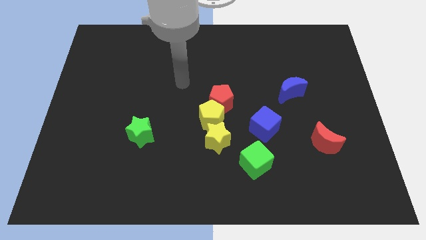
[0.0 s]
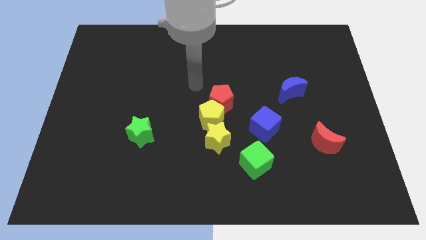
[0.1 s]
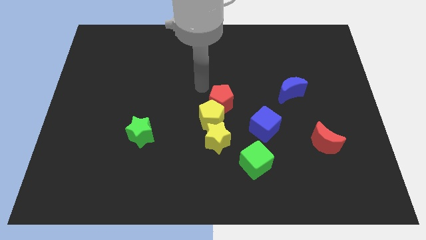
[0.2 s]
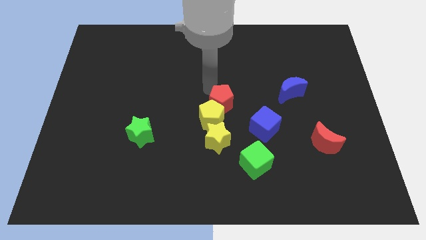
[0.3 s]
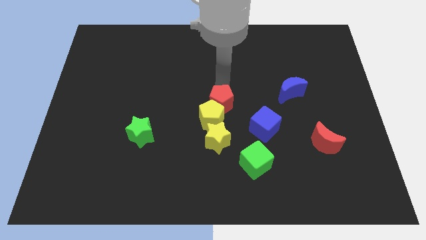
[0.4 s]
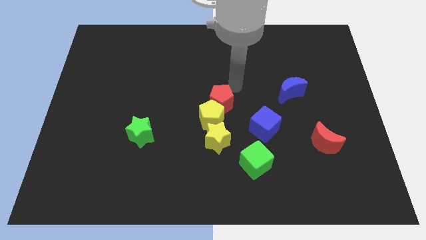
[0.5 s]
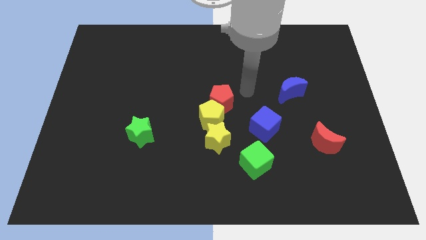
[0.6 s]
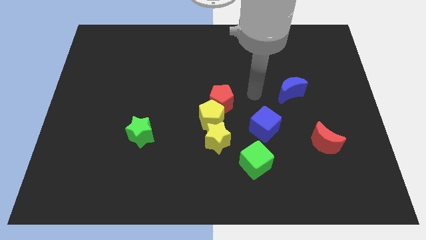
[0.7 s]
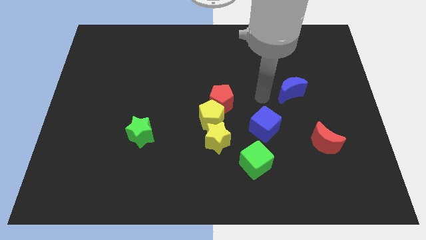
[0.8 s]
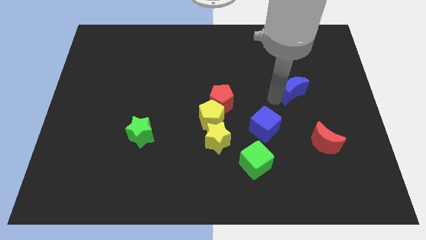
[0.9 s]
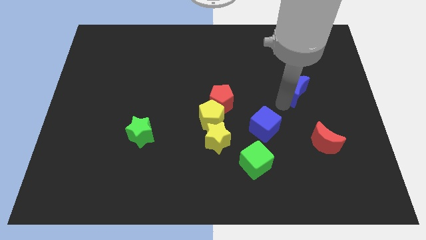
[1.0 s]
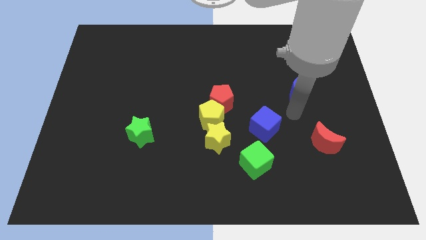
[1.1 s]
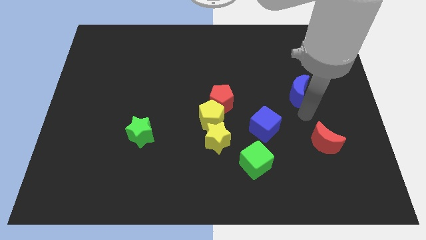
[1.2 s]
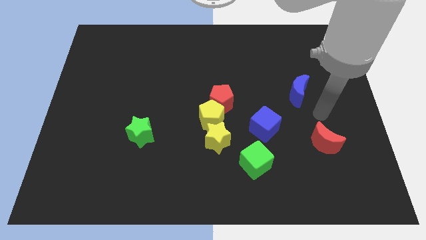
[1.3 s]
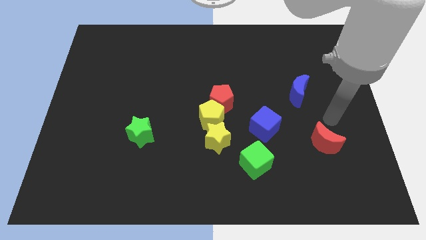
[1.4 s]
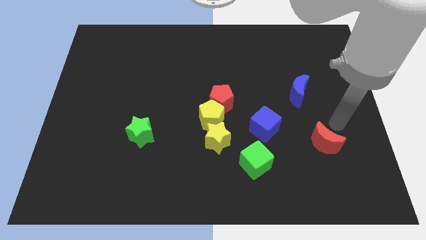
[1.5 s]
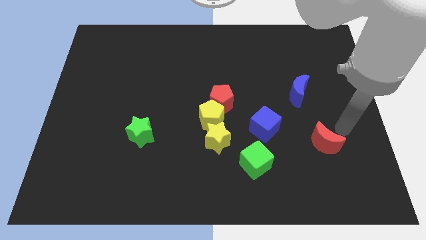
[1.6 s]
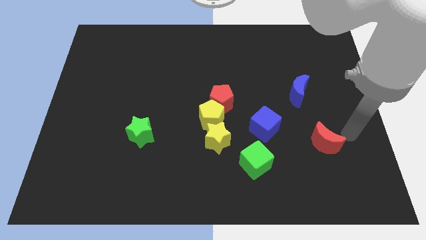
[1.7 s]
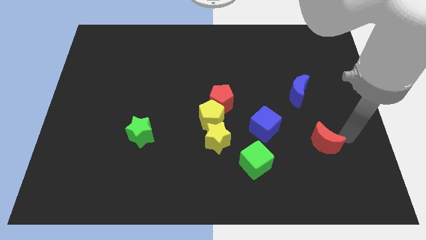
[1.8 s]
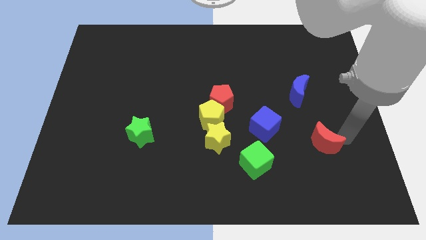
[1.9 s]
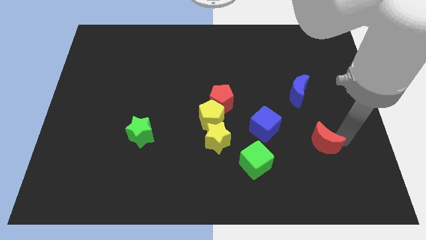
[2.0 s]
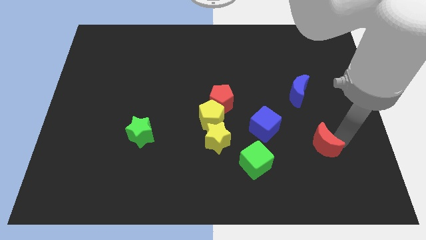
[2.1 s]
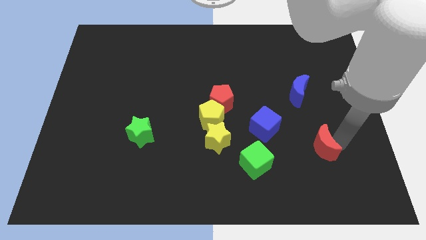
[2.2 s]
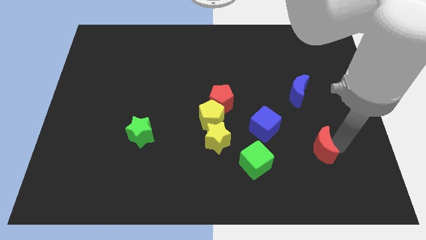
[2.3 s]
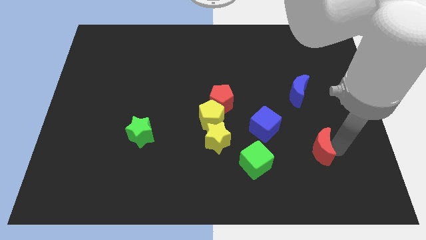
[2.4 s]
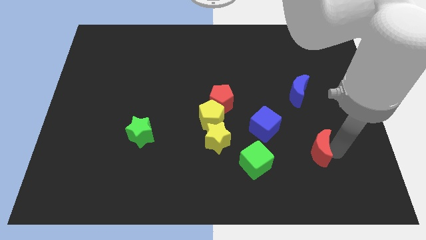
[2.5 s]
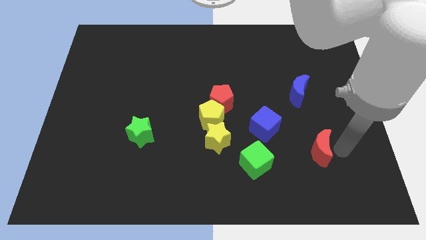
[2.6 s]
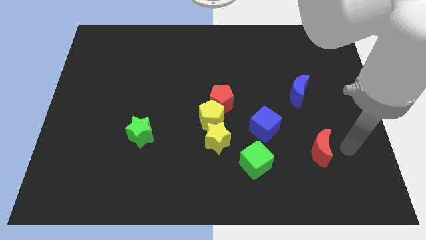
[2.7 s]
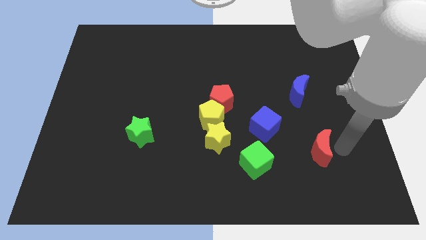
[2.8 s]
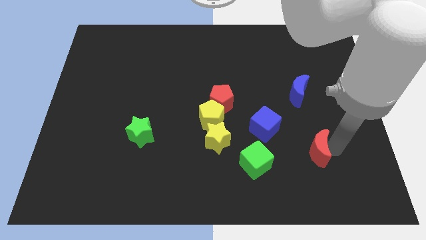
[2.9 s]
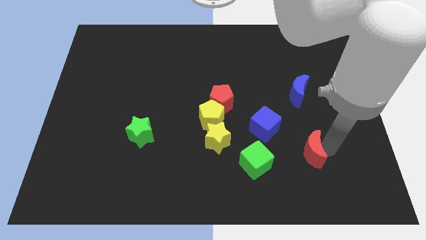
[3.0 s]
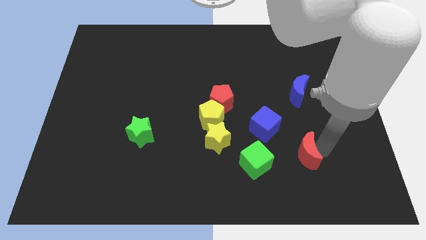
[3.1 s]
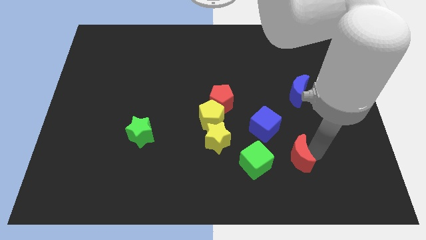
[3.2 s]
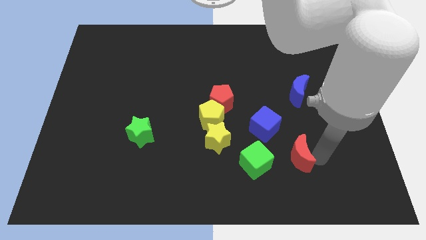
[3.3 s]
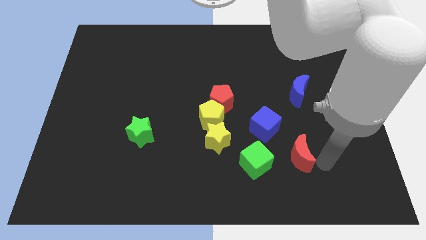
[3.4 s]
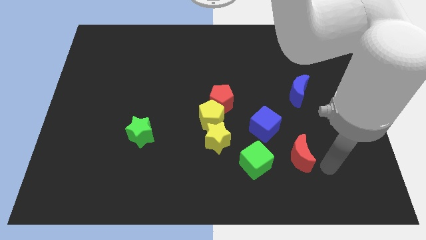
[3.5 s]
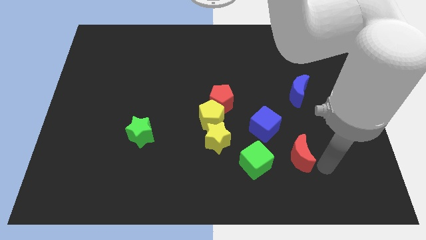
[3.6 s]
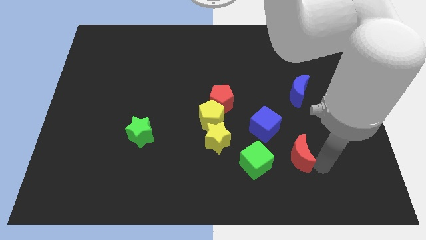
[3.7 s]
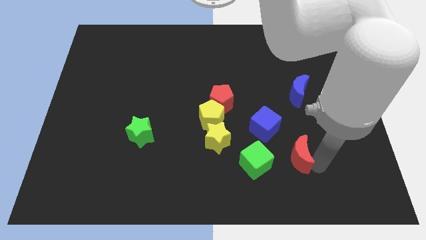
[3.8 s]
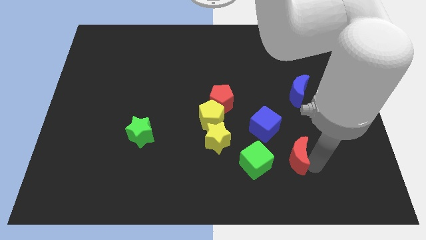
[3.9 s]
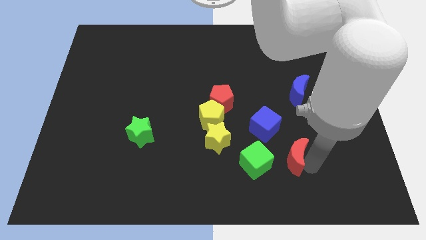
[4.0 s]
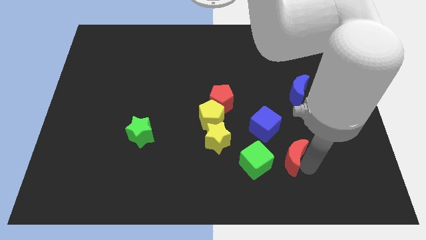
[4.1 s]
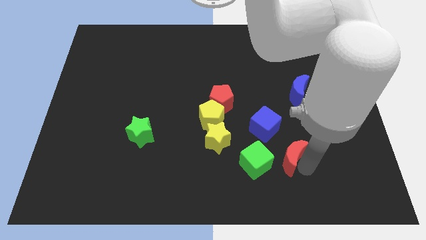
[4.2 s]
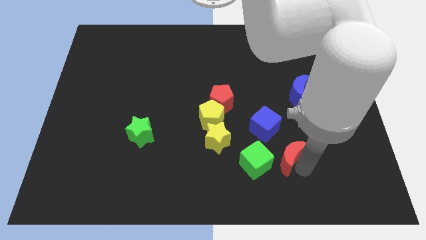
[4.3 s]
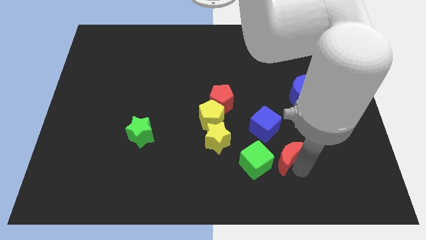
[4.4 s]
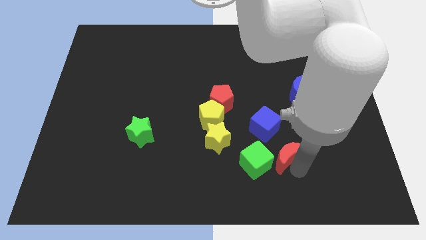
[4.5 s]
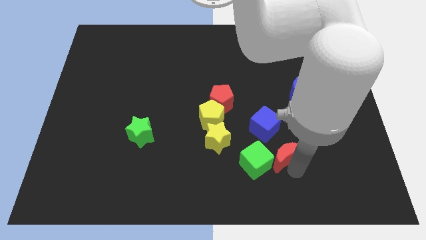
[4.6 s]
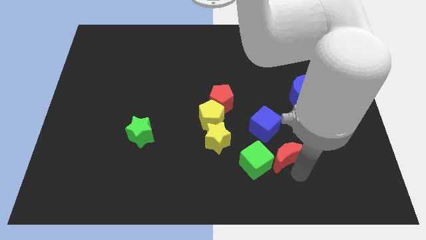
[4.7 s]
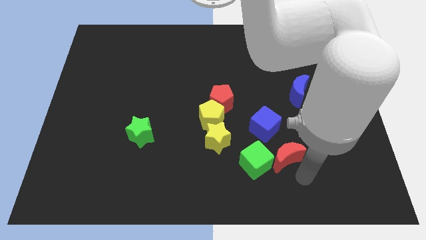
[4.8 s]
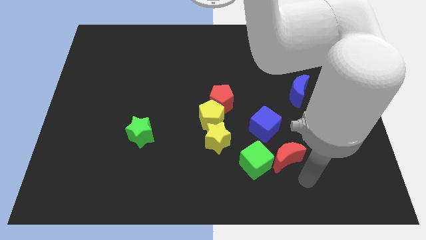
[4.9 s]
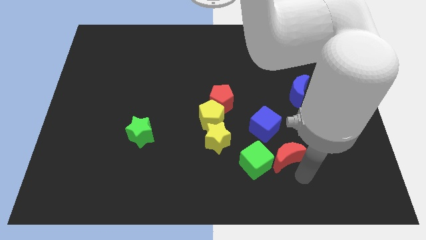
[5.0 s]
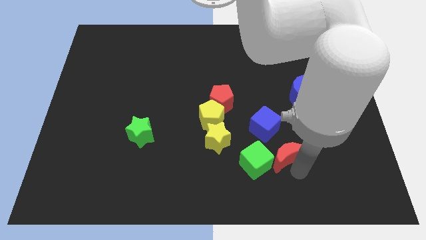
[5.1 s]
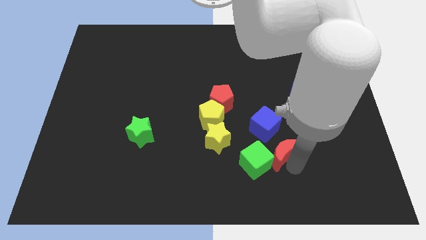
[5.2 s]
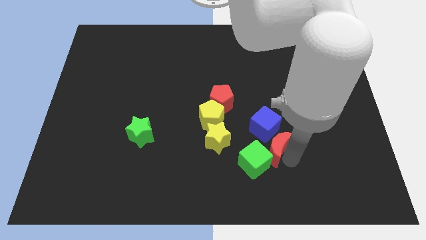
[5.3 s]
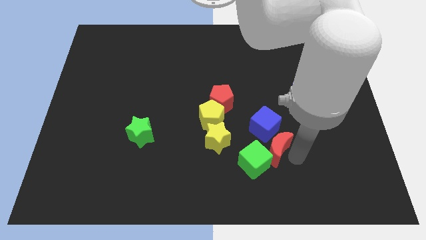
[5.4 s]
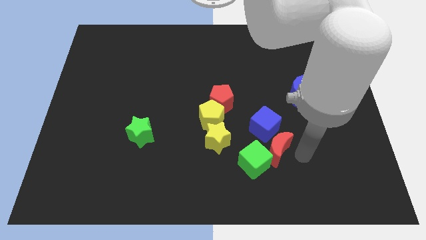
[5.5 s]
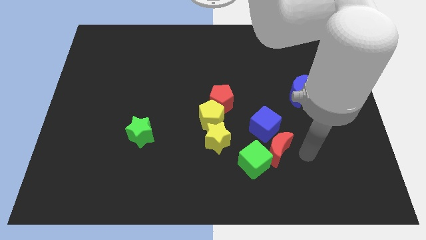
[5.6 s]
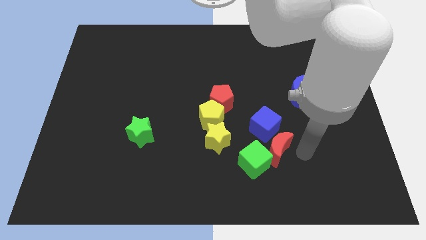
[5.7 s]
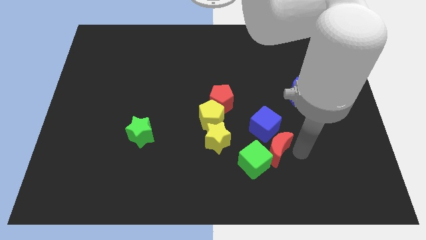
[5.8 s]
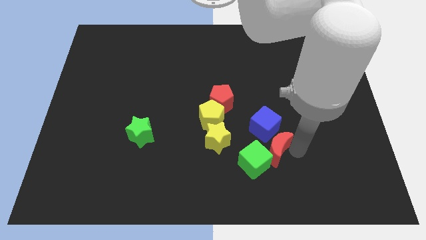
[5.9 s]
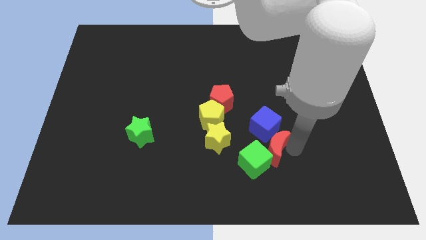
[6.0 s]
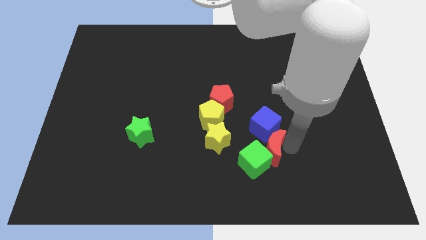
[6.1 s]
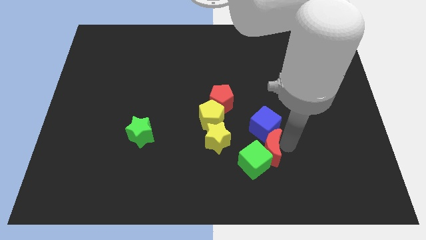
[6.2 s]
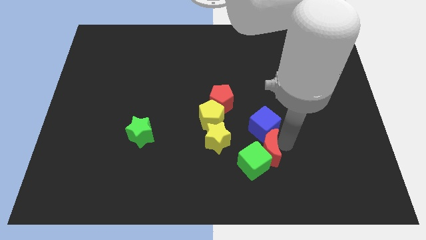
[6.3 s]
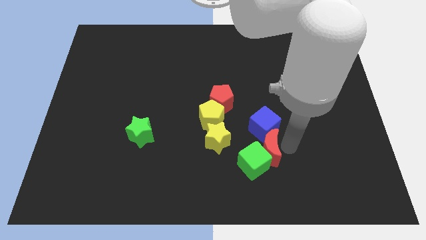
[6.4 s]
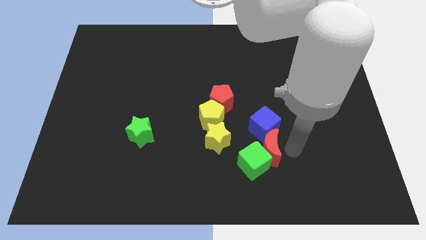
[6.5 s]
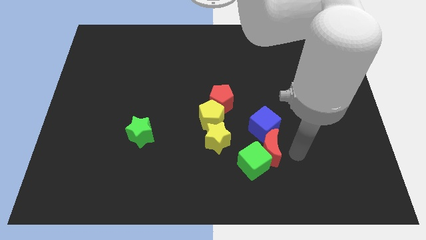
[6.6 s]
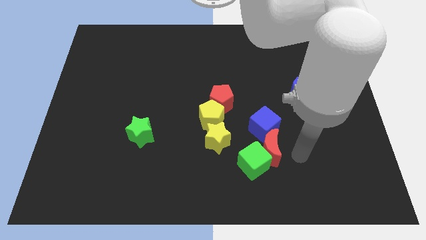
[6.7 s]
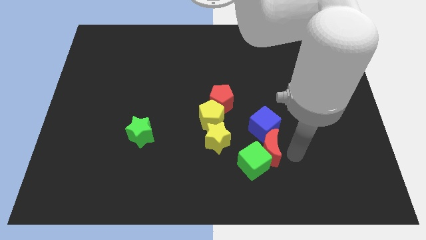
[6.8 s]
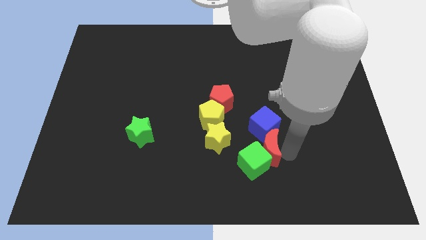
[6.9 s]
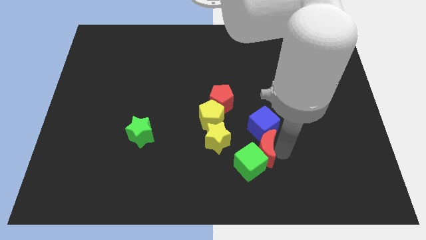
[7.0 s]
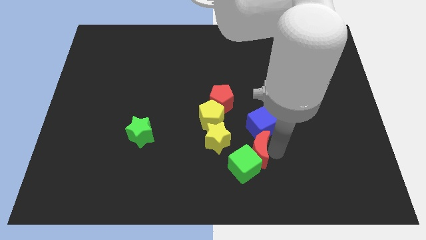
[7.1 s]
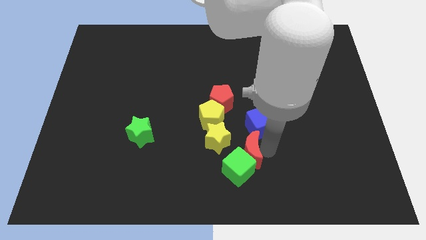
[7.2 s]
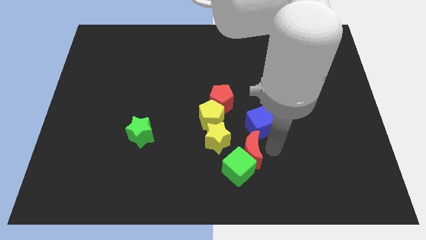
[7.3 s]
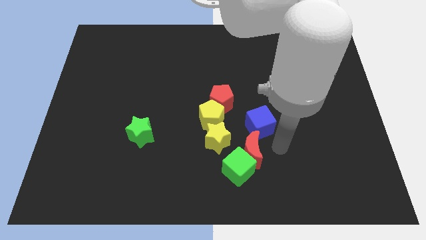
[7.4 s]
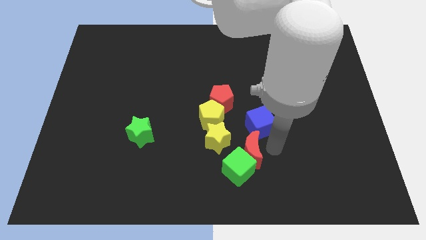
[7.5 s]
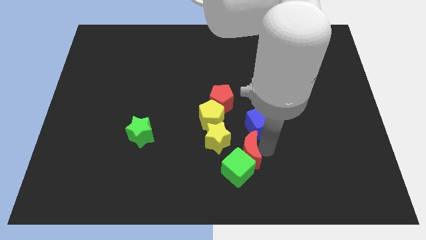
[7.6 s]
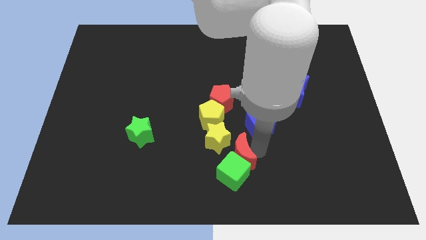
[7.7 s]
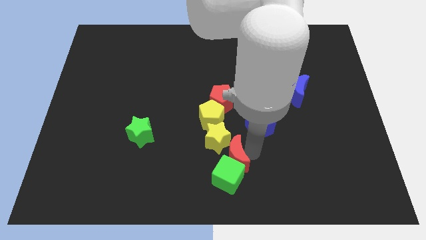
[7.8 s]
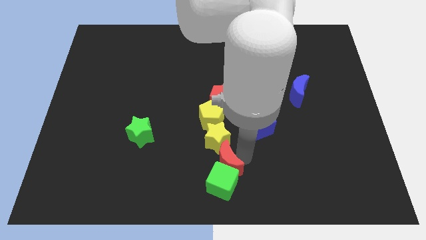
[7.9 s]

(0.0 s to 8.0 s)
move the red moon left

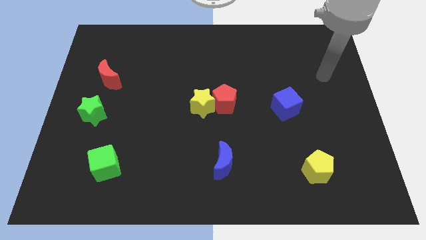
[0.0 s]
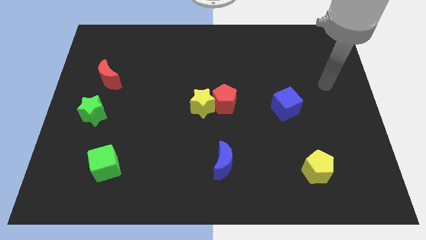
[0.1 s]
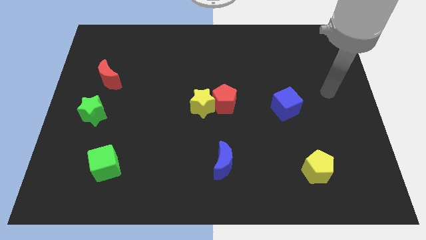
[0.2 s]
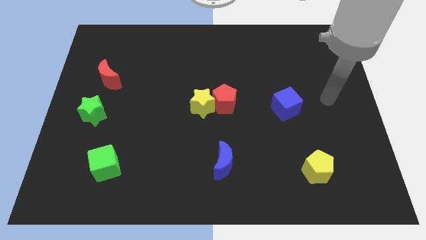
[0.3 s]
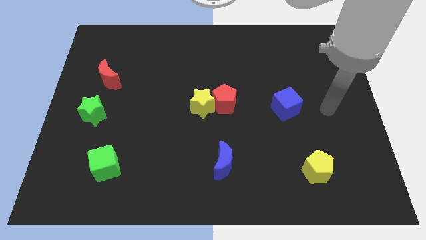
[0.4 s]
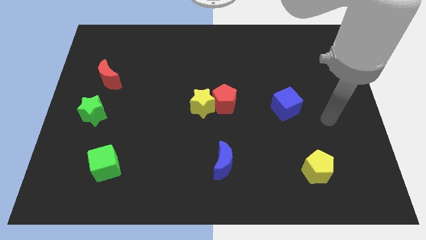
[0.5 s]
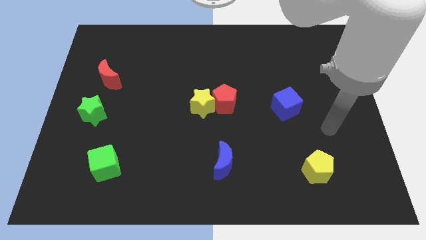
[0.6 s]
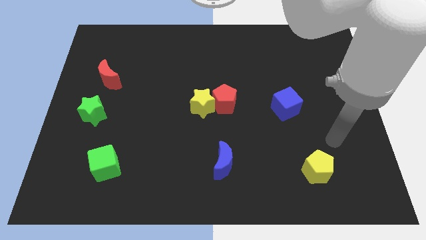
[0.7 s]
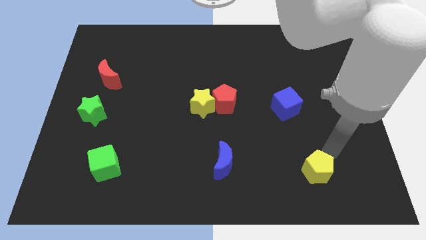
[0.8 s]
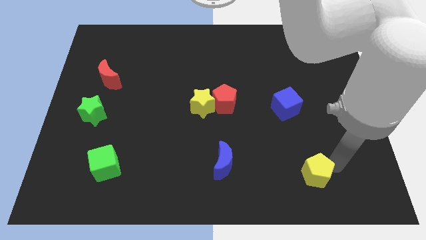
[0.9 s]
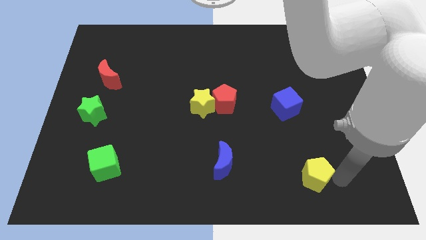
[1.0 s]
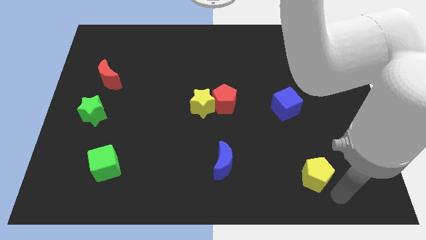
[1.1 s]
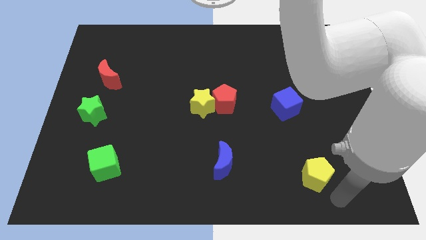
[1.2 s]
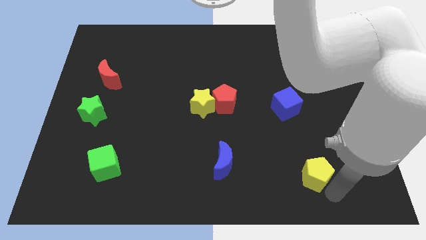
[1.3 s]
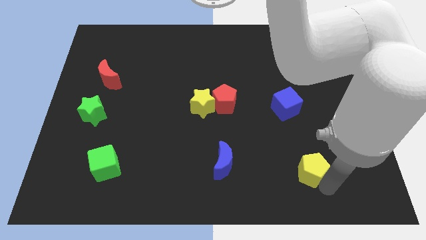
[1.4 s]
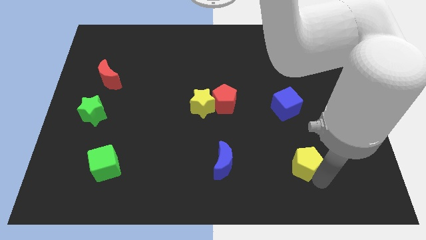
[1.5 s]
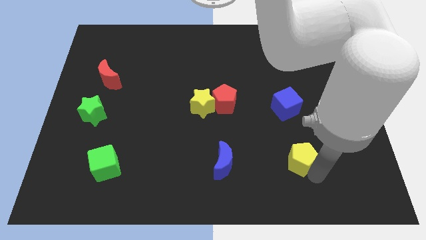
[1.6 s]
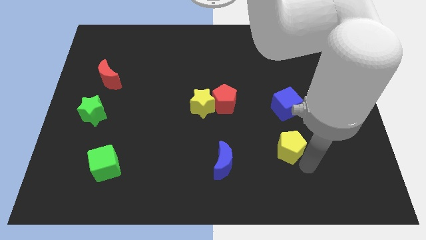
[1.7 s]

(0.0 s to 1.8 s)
slide the yellow pentagon a little bit upwards and then left
